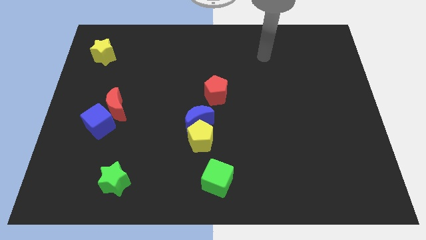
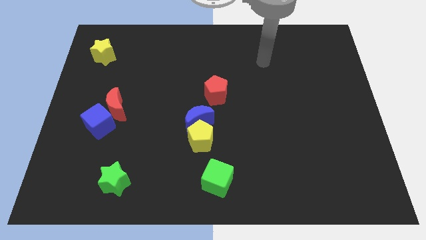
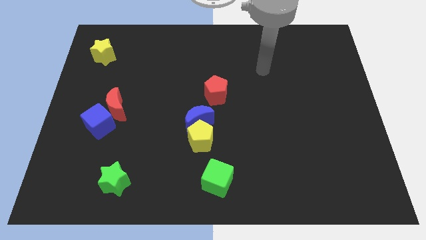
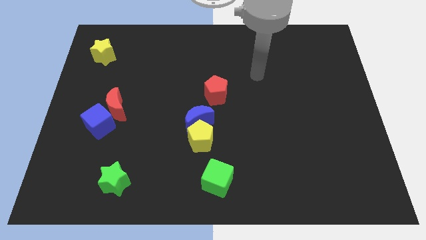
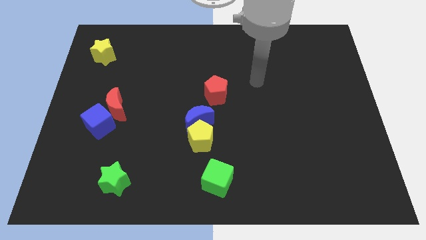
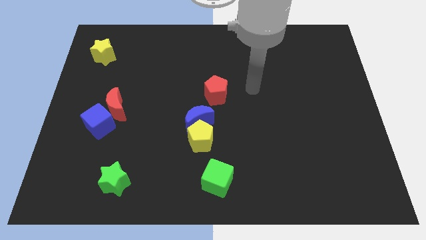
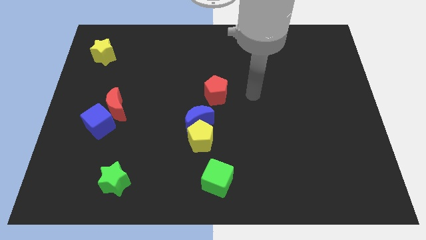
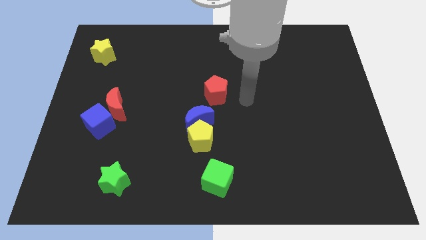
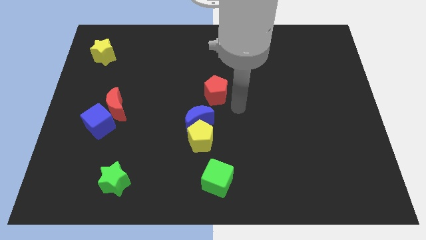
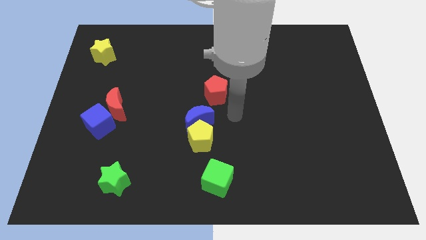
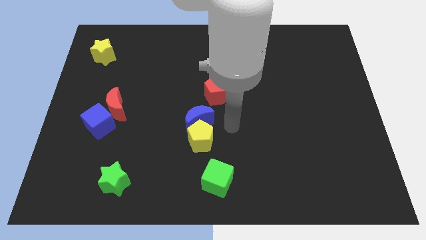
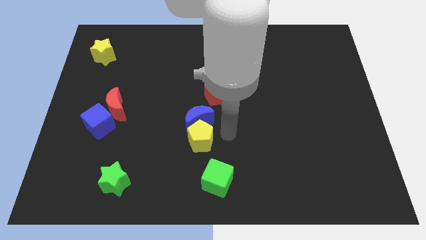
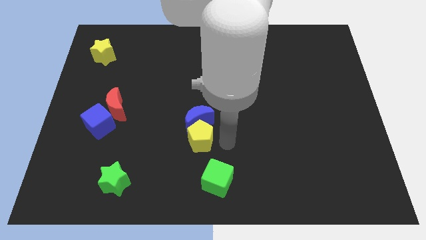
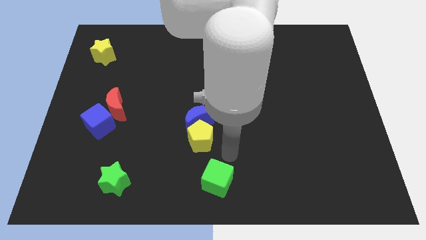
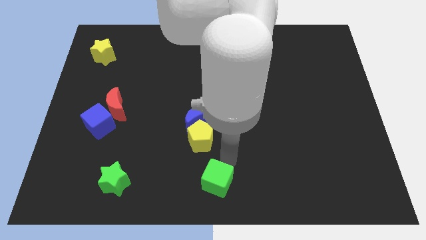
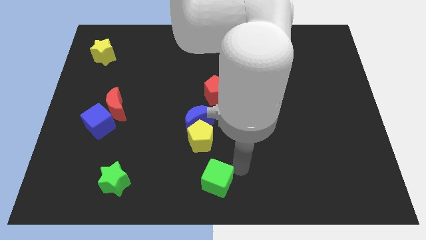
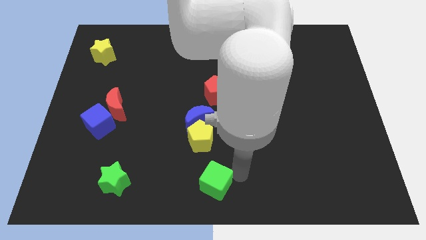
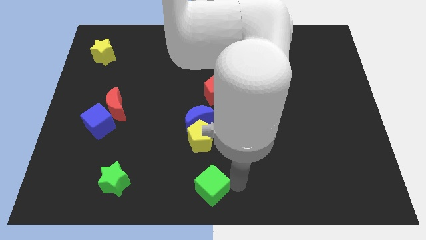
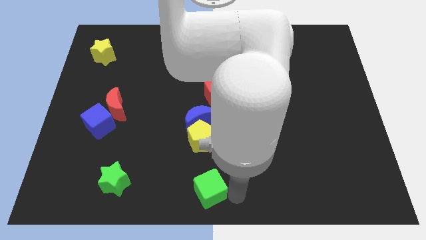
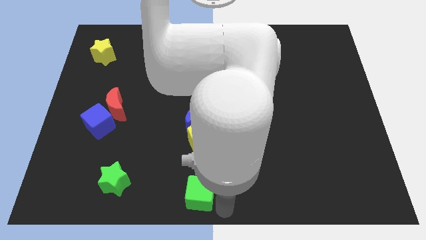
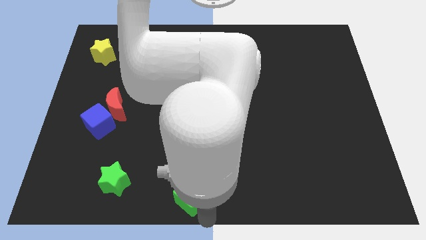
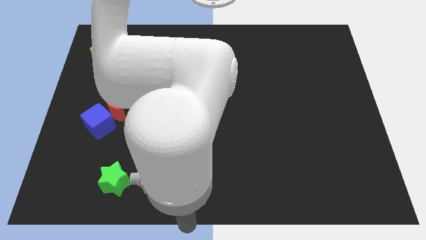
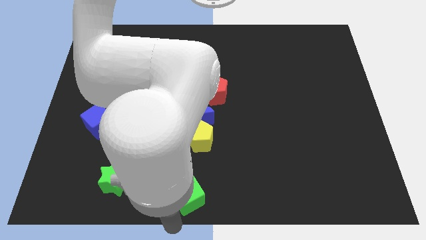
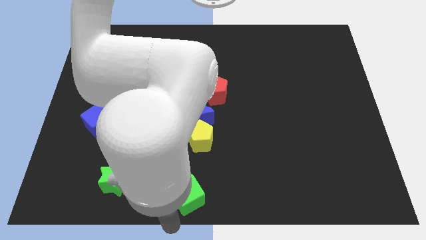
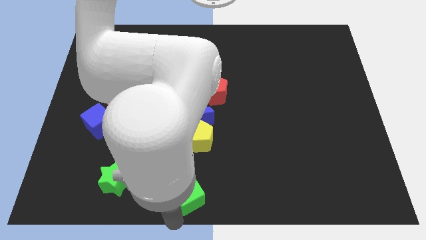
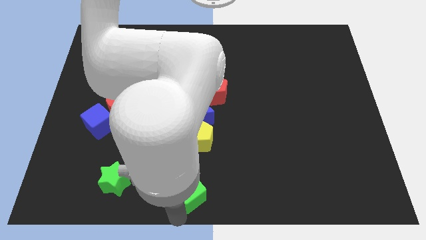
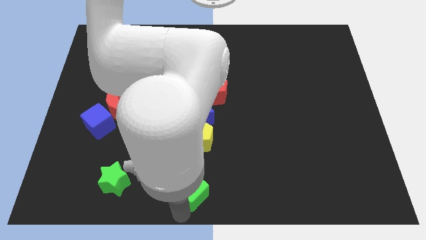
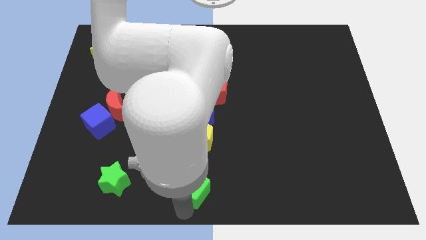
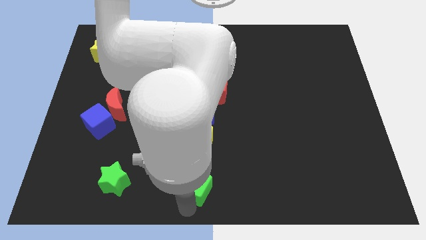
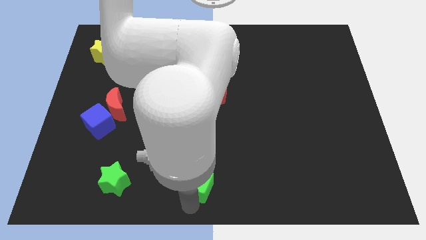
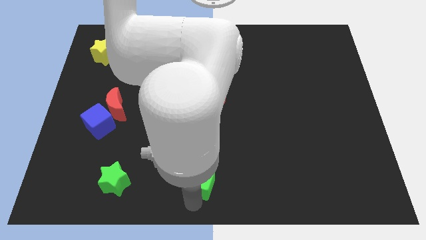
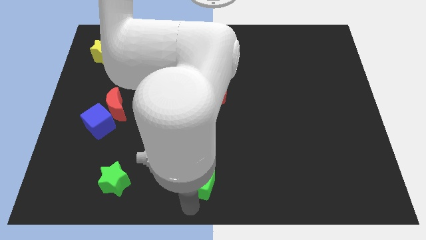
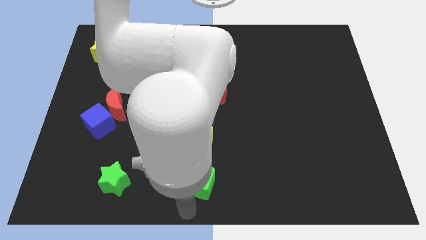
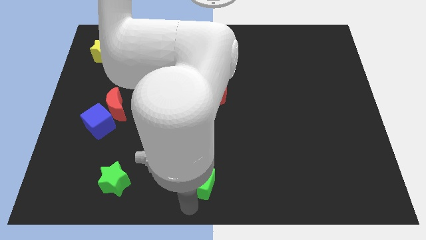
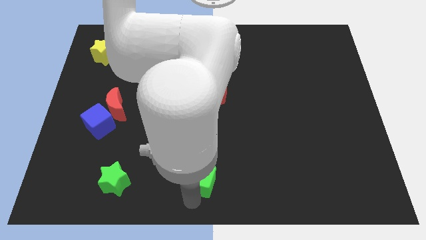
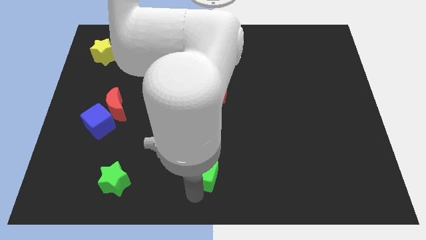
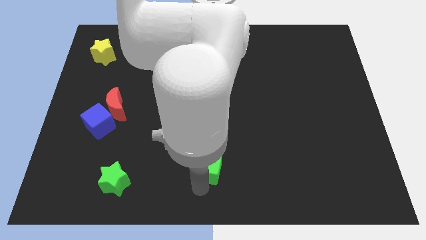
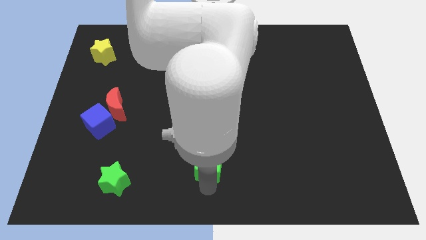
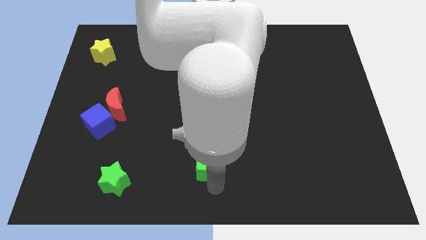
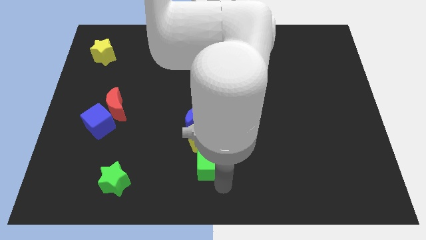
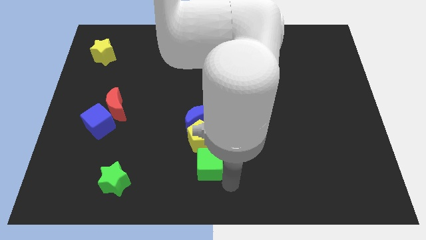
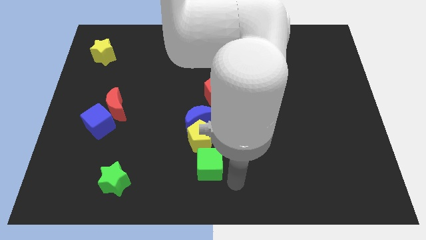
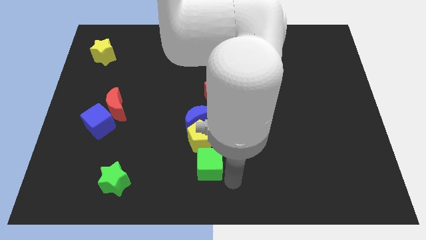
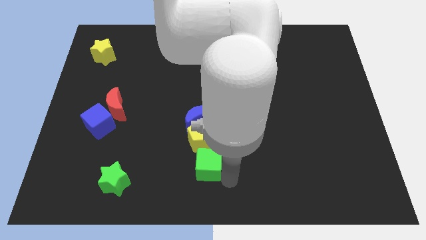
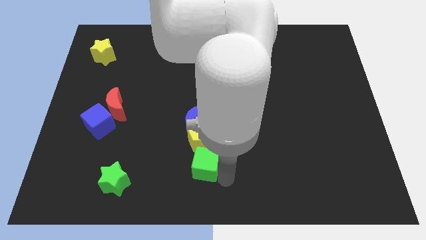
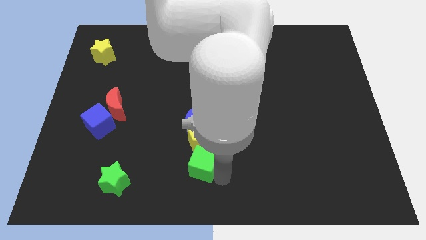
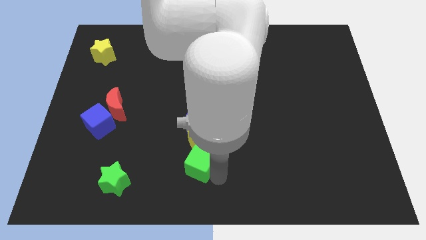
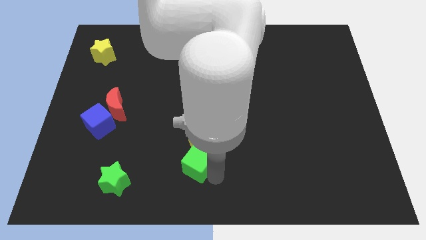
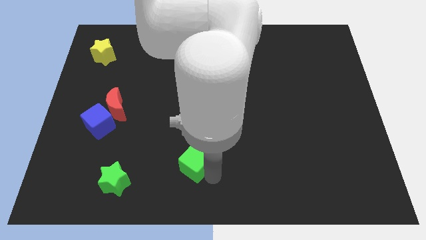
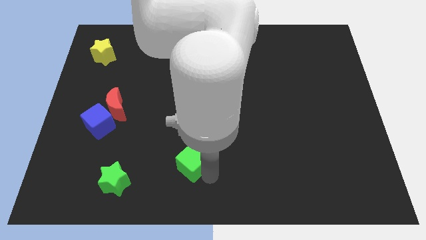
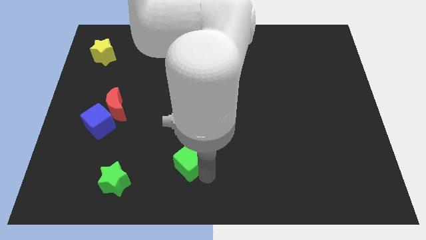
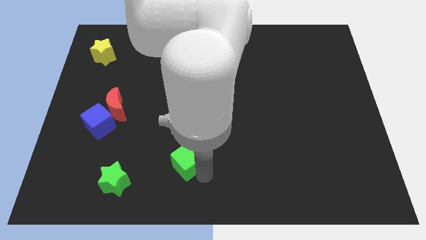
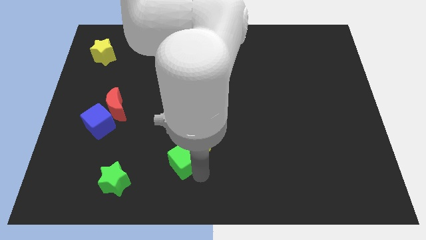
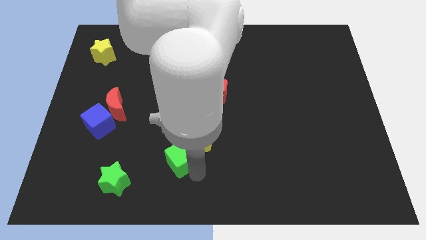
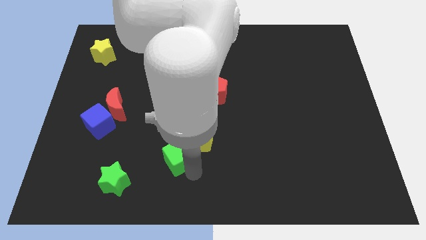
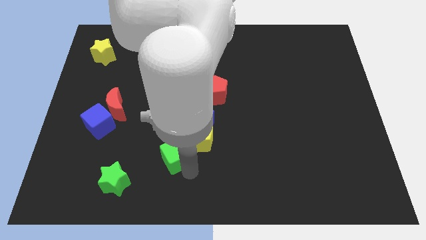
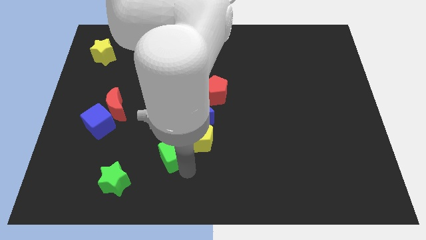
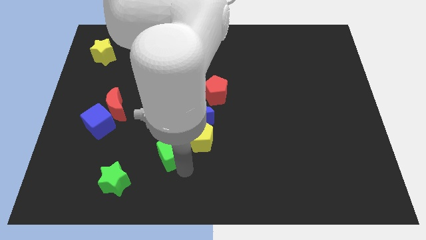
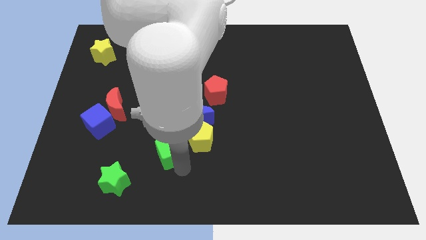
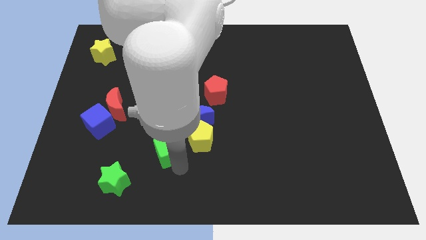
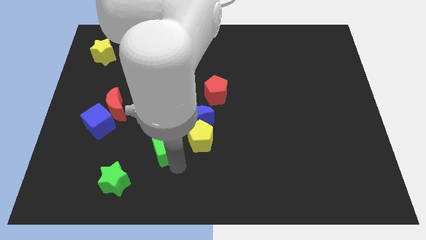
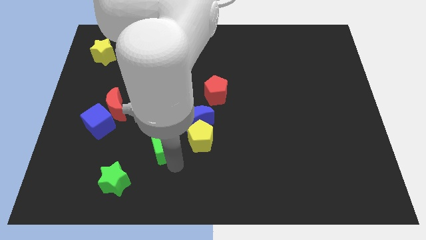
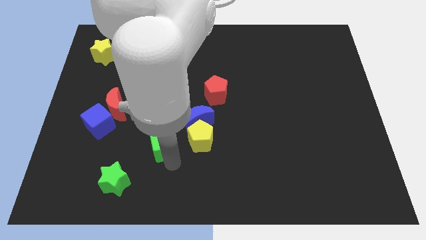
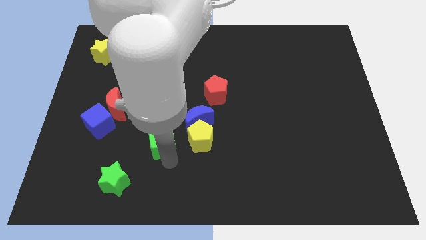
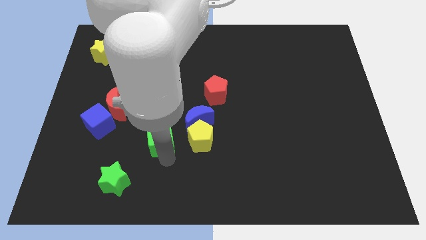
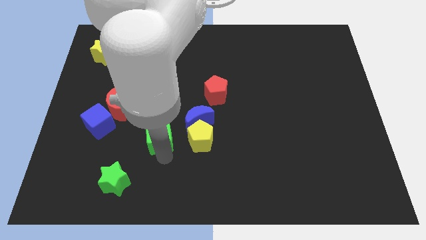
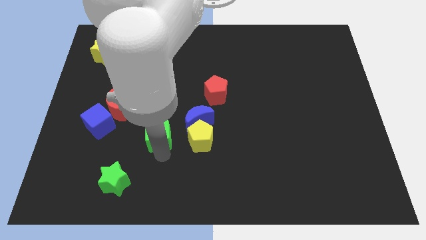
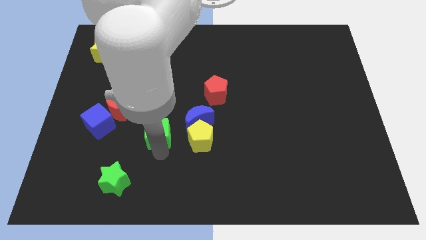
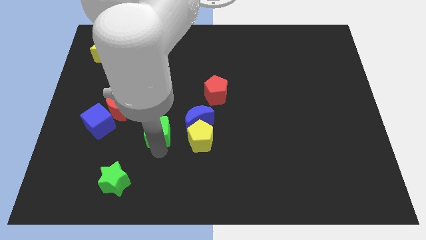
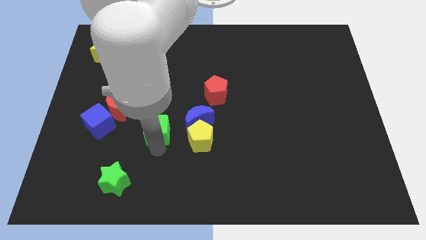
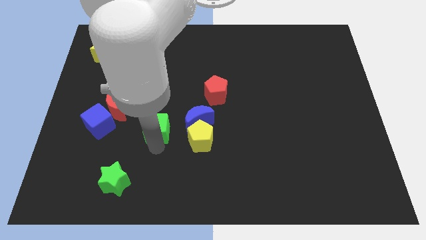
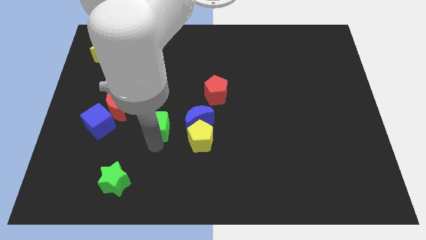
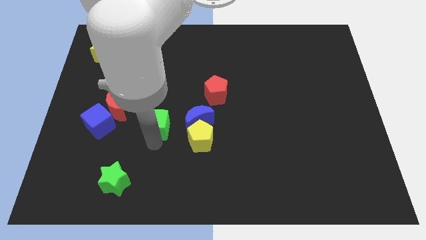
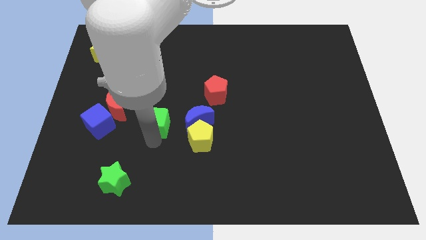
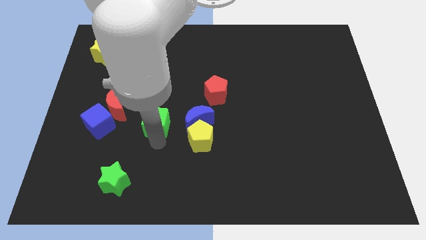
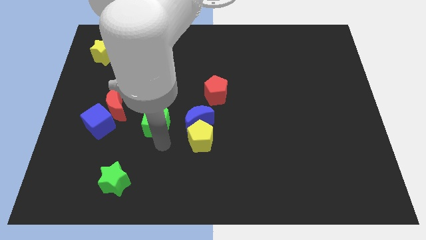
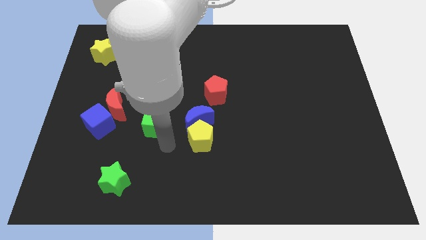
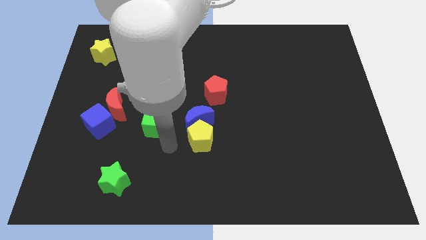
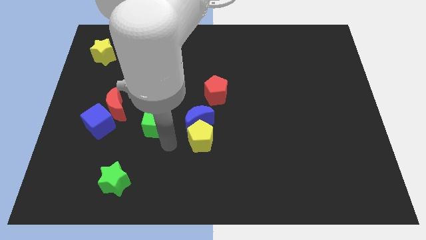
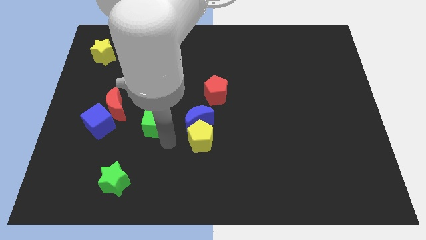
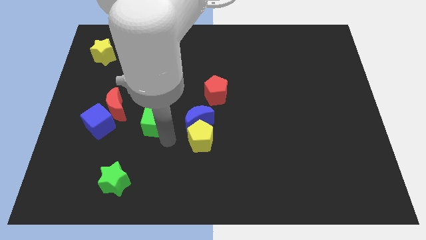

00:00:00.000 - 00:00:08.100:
move the green cube upwards and left
